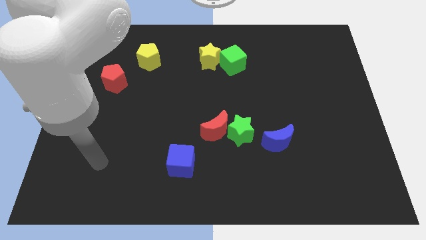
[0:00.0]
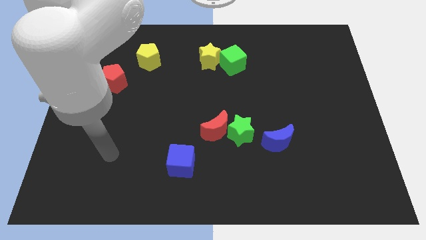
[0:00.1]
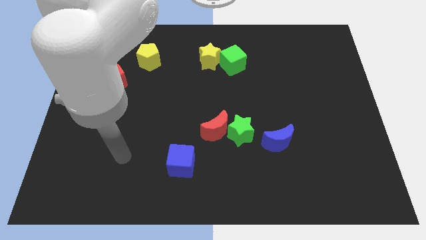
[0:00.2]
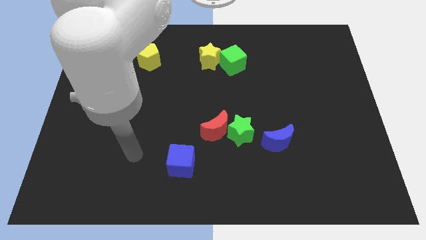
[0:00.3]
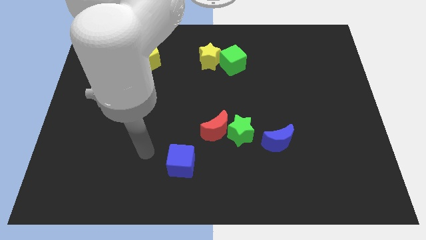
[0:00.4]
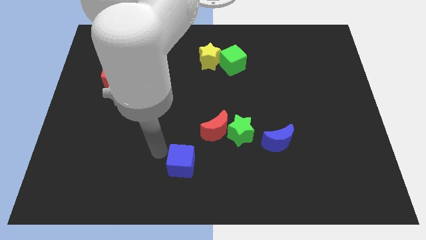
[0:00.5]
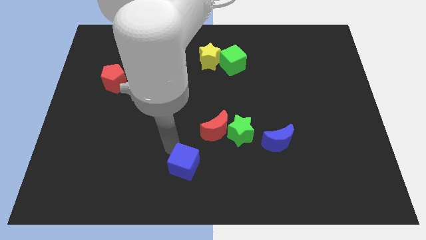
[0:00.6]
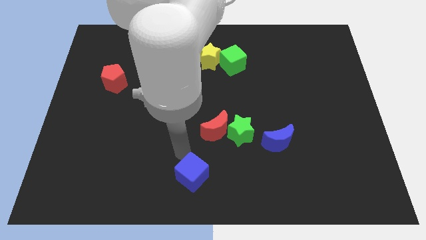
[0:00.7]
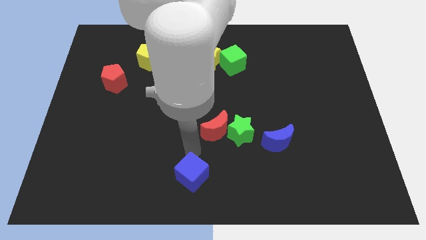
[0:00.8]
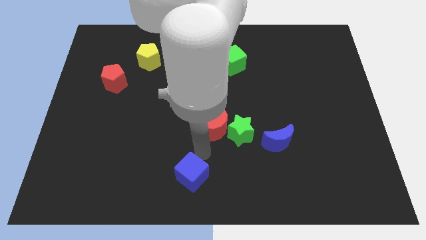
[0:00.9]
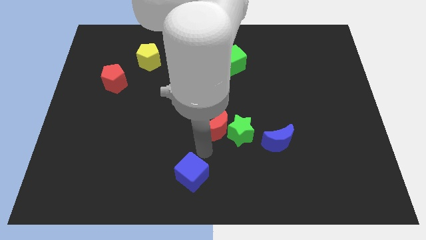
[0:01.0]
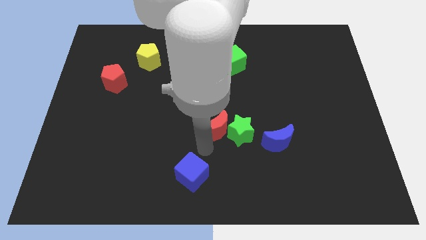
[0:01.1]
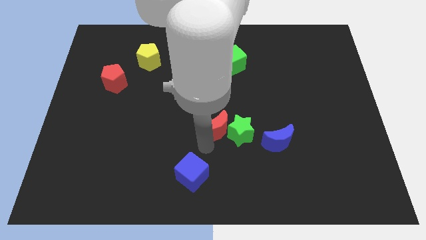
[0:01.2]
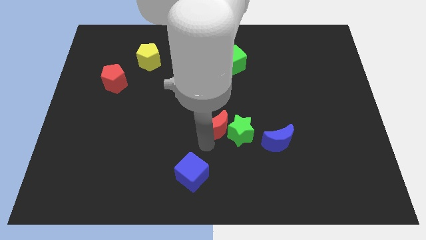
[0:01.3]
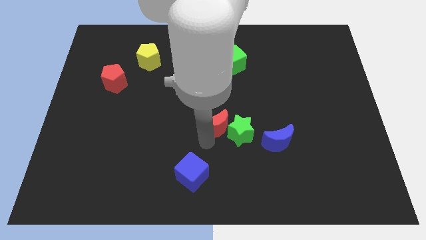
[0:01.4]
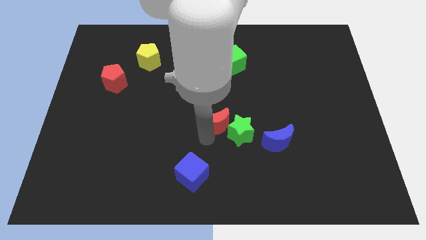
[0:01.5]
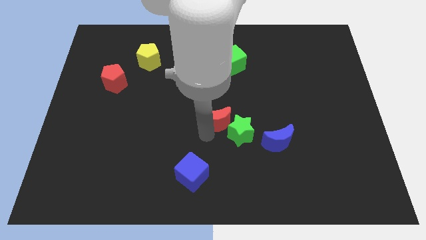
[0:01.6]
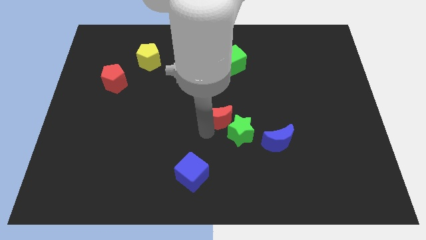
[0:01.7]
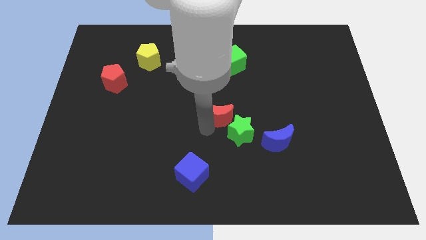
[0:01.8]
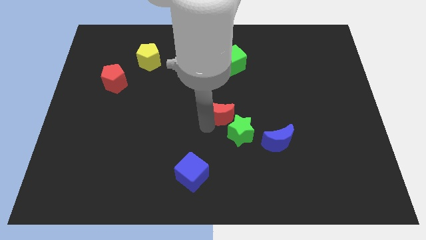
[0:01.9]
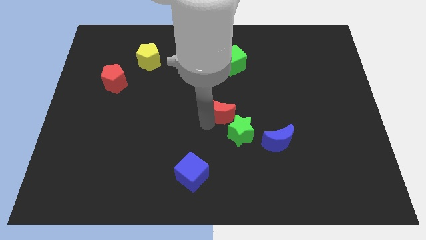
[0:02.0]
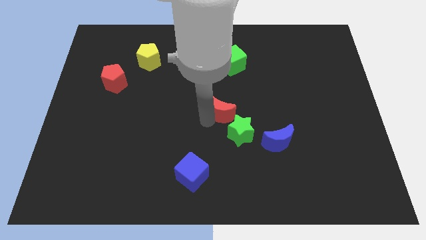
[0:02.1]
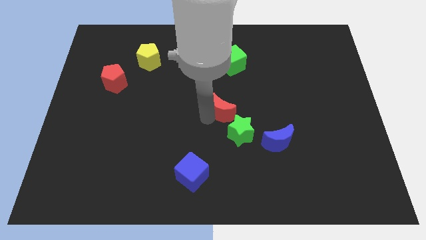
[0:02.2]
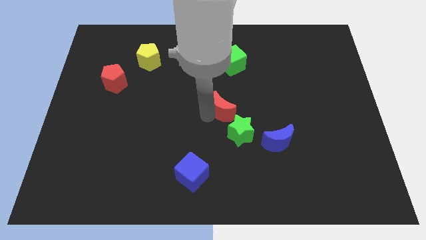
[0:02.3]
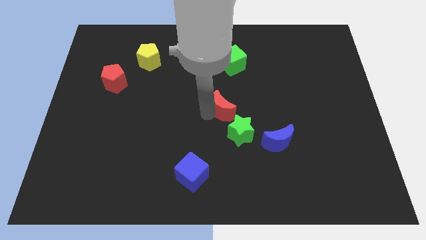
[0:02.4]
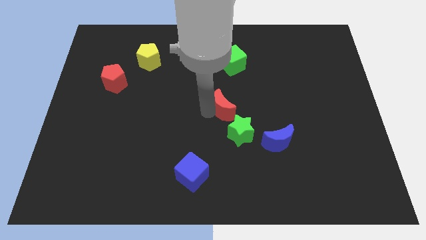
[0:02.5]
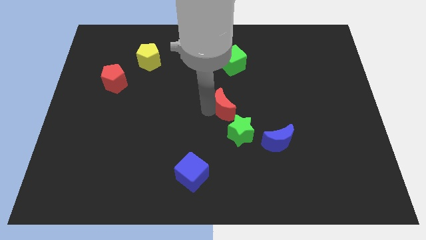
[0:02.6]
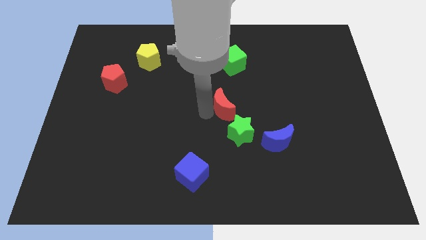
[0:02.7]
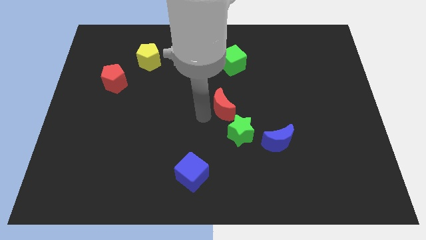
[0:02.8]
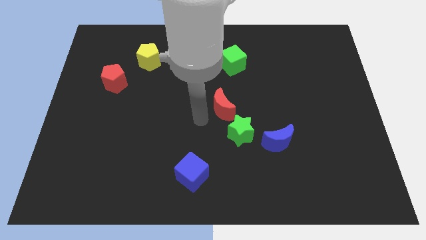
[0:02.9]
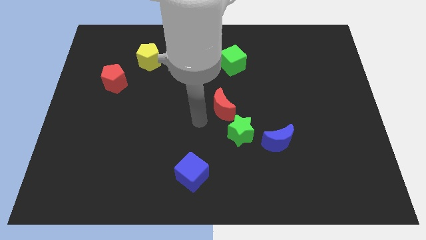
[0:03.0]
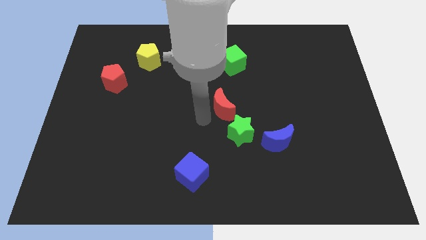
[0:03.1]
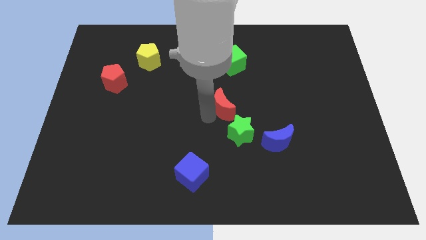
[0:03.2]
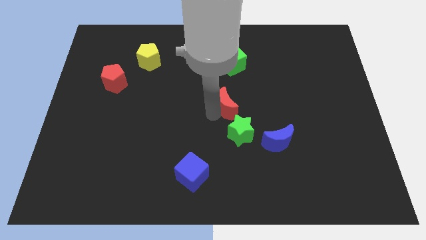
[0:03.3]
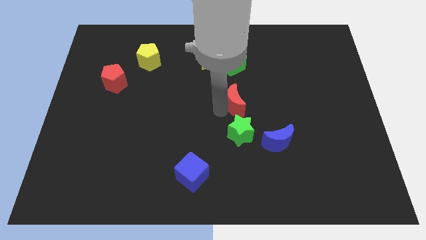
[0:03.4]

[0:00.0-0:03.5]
move the red moon a little up and then right

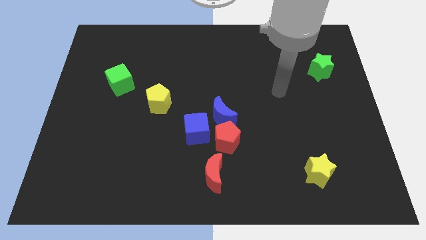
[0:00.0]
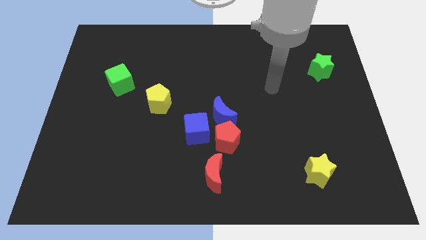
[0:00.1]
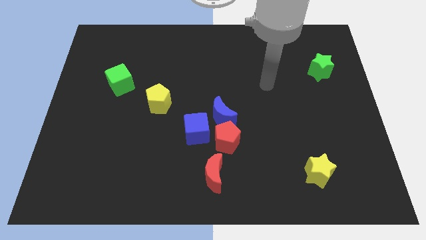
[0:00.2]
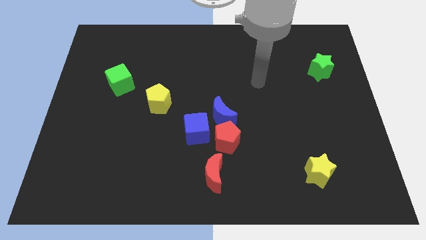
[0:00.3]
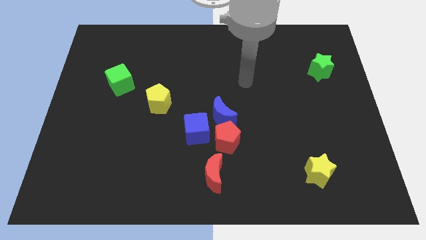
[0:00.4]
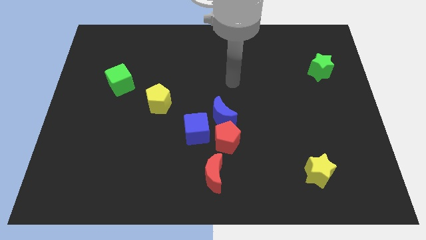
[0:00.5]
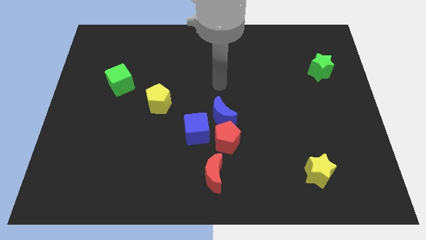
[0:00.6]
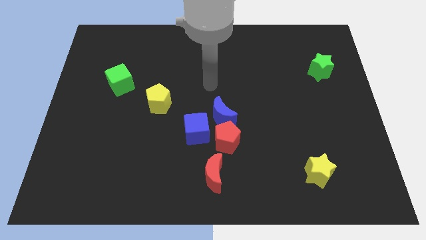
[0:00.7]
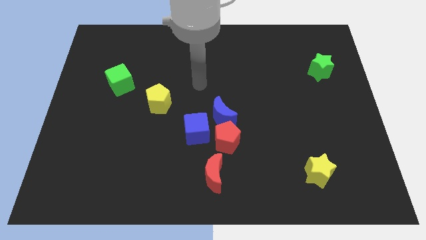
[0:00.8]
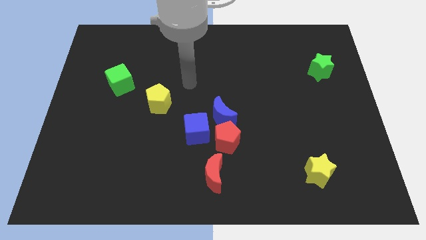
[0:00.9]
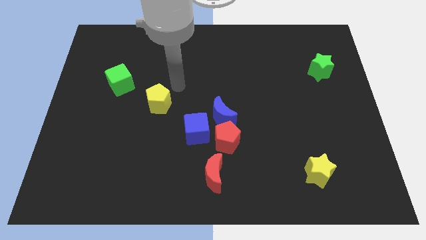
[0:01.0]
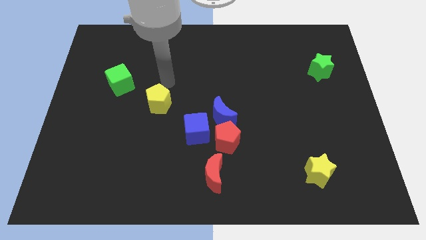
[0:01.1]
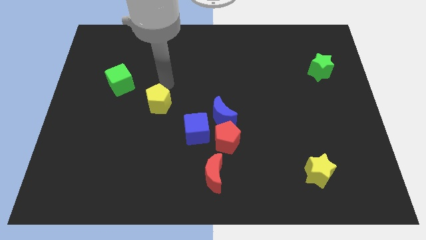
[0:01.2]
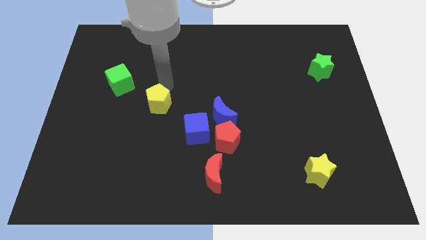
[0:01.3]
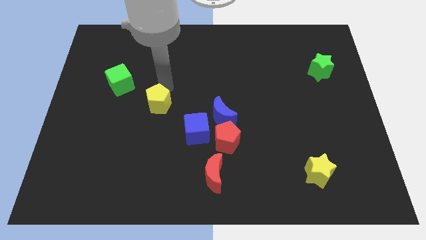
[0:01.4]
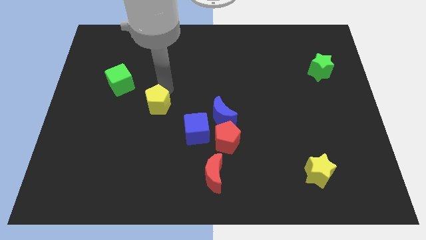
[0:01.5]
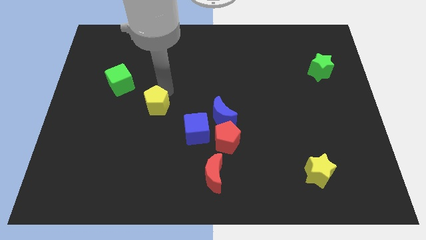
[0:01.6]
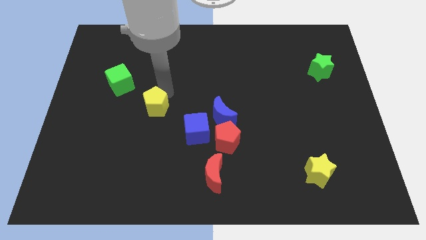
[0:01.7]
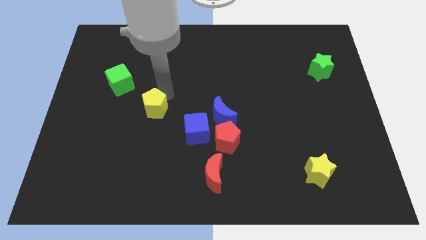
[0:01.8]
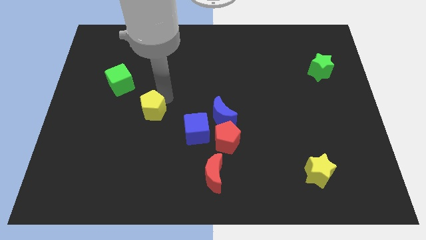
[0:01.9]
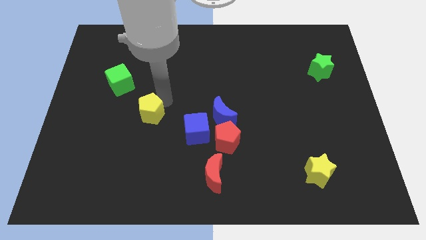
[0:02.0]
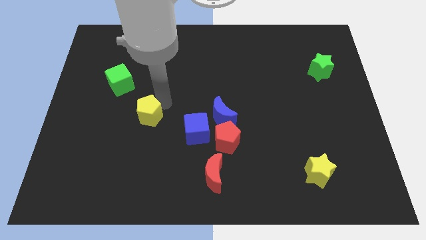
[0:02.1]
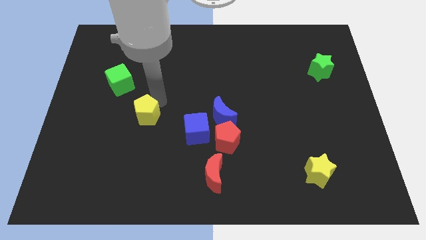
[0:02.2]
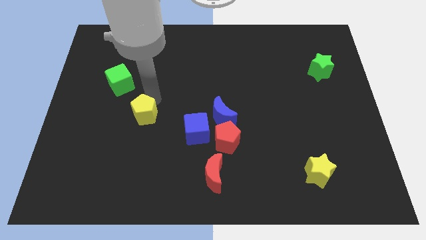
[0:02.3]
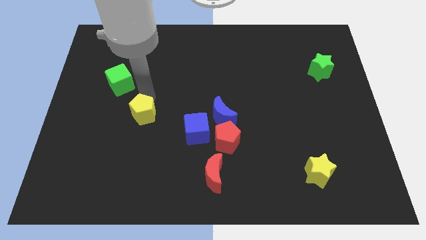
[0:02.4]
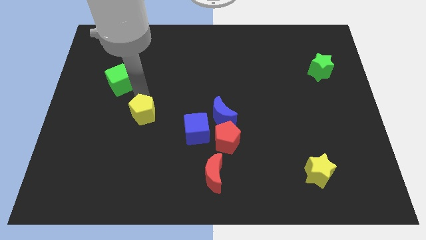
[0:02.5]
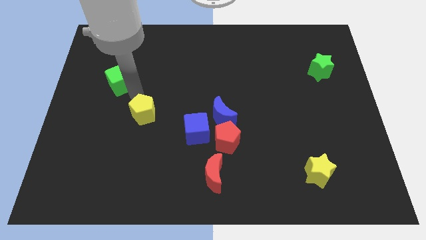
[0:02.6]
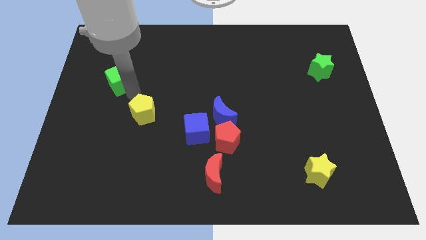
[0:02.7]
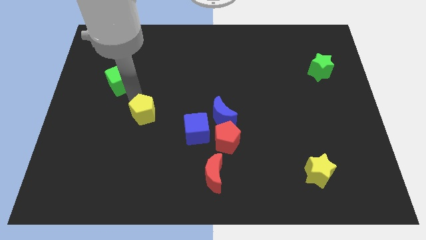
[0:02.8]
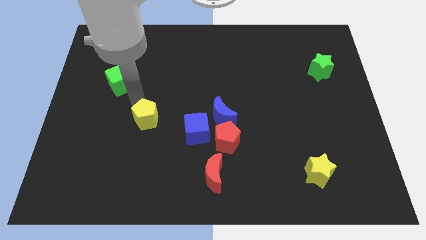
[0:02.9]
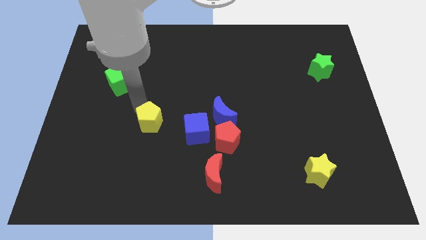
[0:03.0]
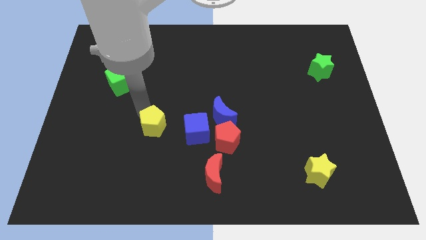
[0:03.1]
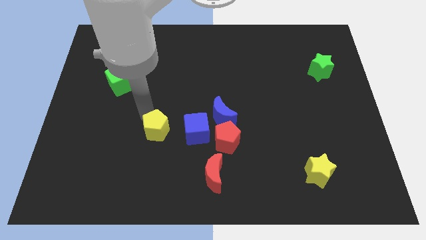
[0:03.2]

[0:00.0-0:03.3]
slightly slide the yellow pentagon downwards

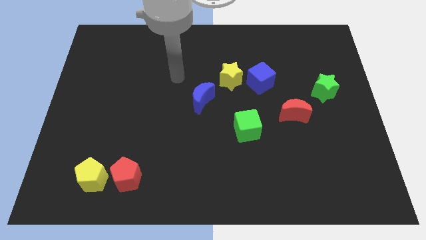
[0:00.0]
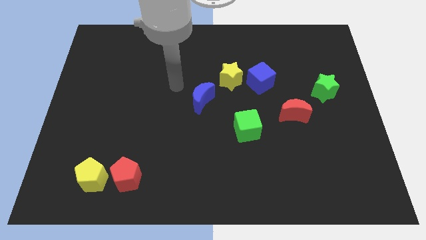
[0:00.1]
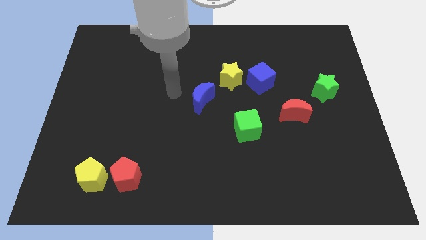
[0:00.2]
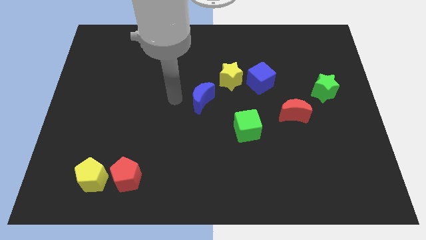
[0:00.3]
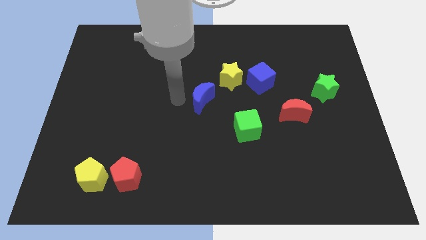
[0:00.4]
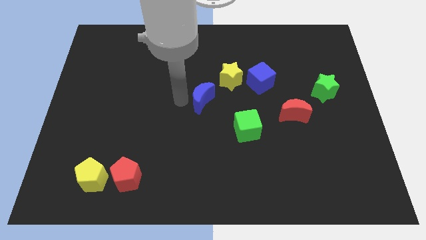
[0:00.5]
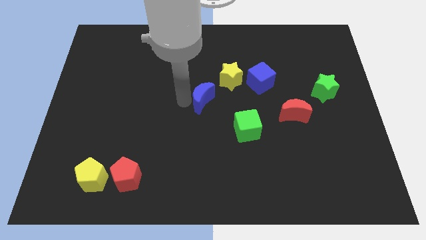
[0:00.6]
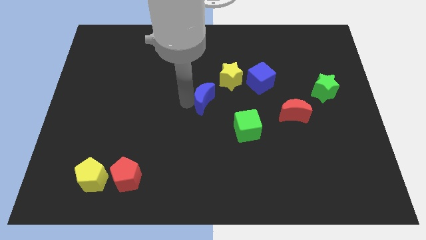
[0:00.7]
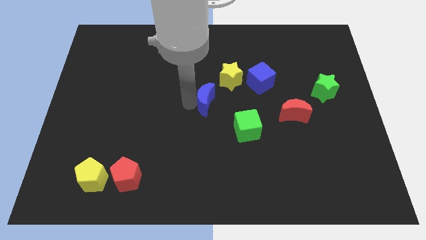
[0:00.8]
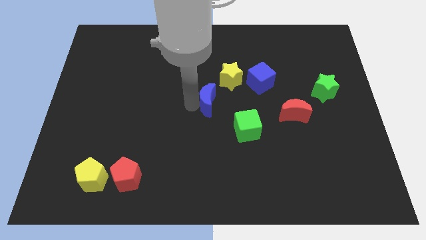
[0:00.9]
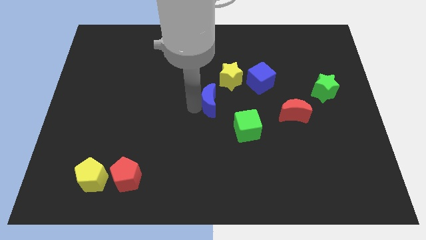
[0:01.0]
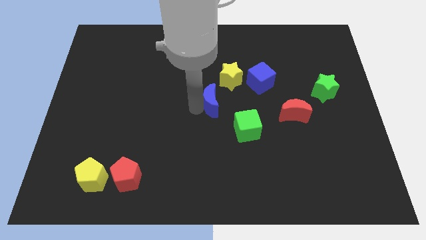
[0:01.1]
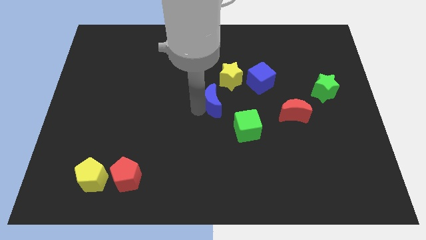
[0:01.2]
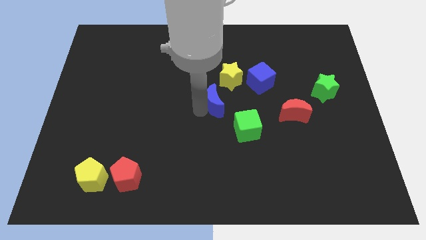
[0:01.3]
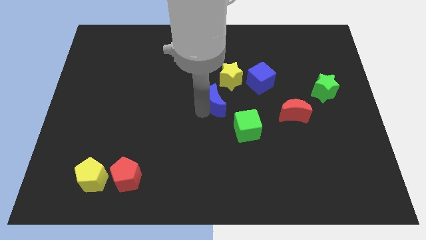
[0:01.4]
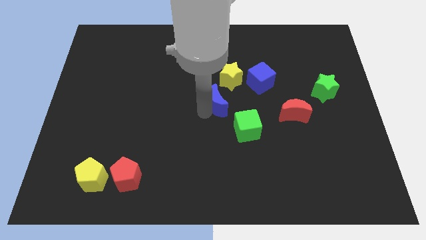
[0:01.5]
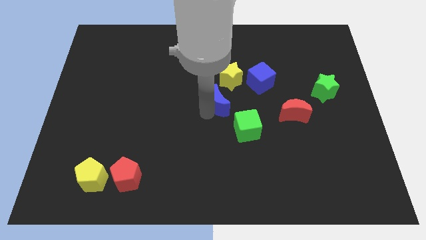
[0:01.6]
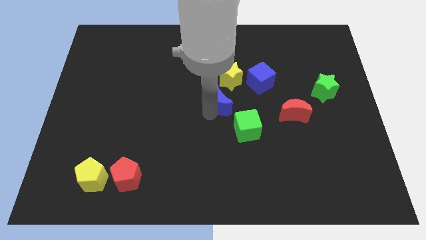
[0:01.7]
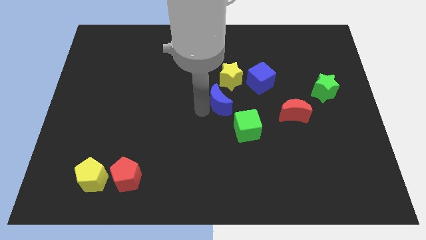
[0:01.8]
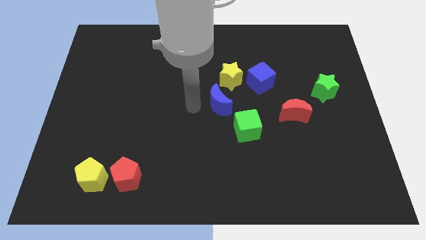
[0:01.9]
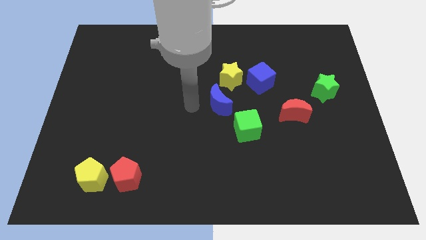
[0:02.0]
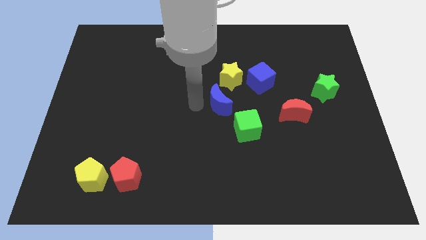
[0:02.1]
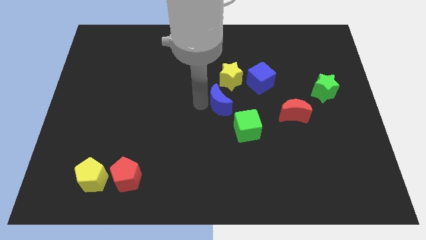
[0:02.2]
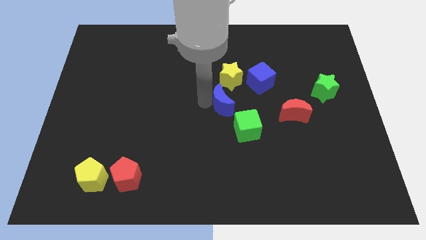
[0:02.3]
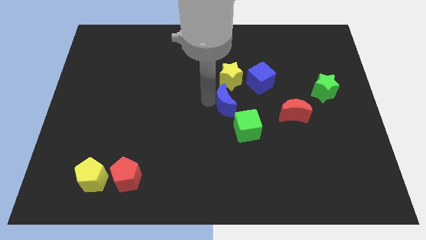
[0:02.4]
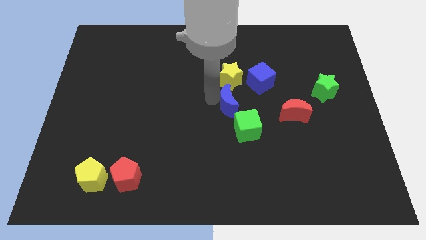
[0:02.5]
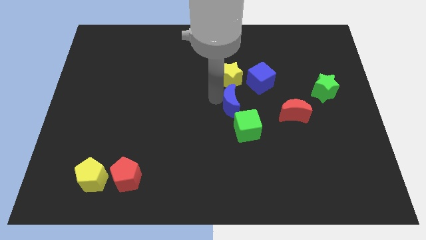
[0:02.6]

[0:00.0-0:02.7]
push the blue moon a bit right
